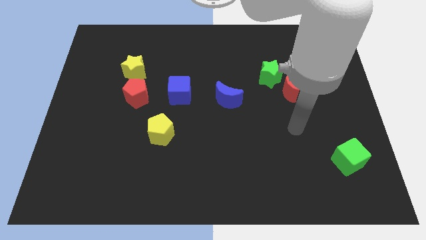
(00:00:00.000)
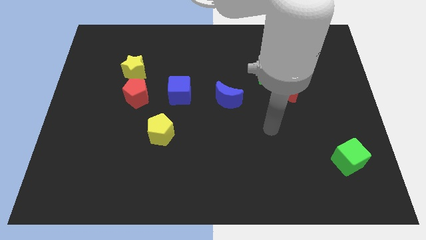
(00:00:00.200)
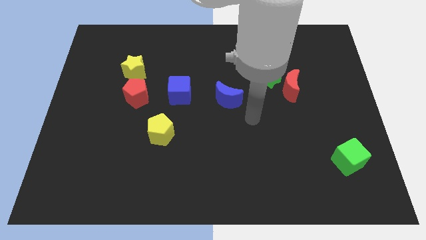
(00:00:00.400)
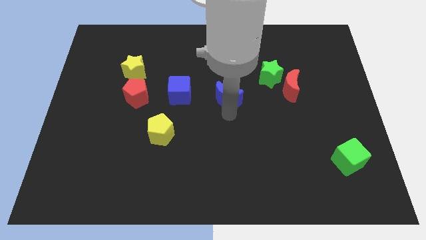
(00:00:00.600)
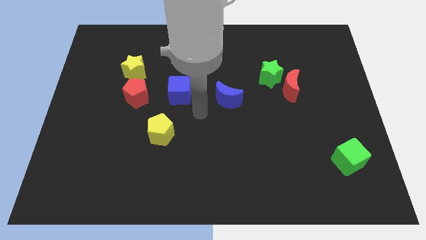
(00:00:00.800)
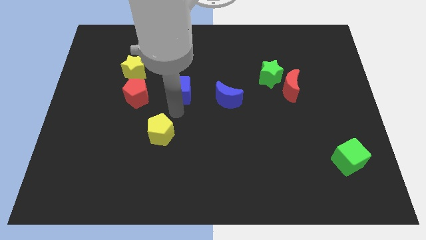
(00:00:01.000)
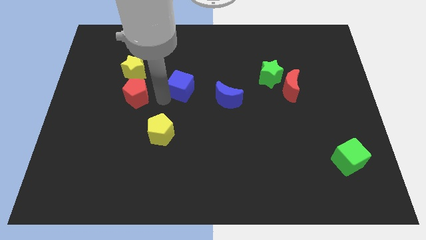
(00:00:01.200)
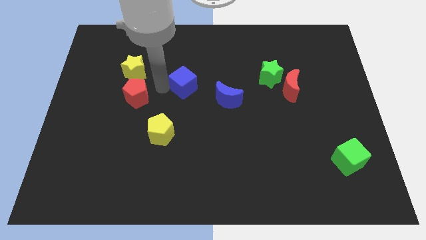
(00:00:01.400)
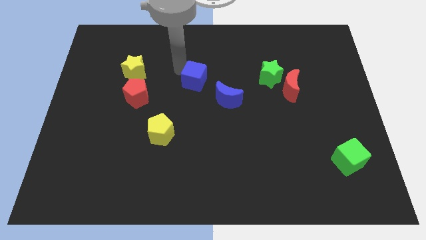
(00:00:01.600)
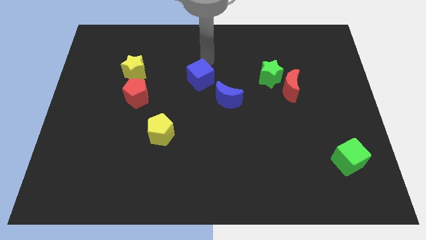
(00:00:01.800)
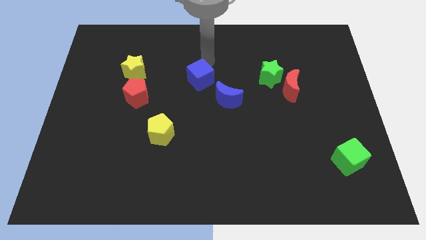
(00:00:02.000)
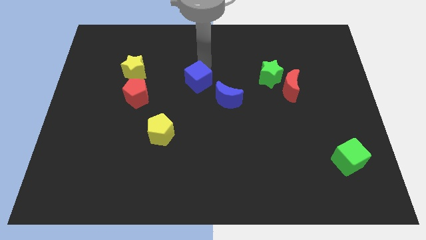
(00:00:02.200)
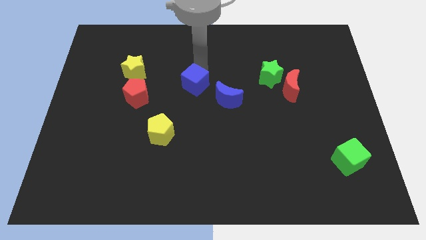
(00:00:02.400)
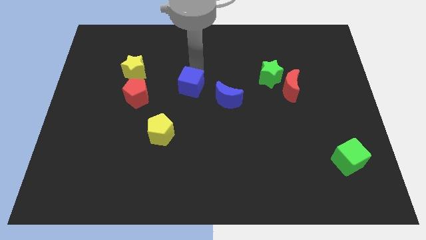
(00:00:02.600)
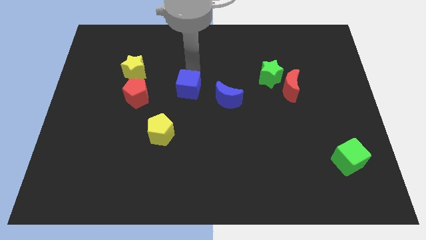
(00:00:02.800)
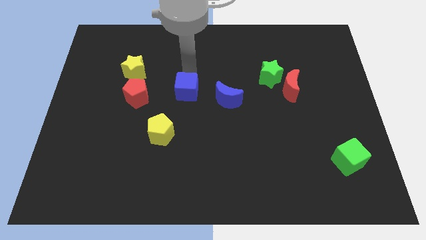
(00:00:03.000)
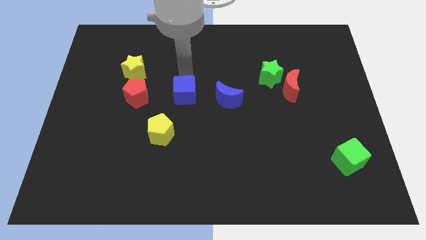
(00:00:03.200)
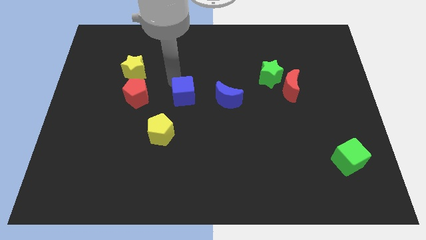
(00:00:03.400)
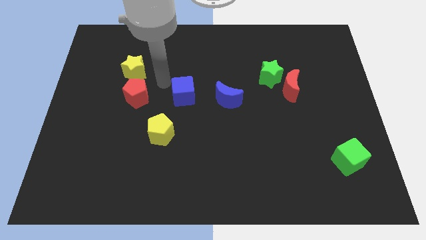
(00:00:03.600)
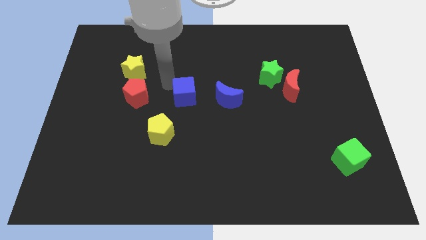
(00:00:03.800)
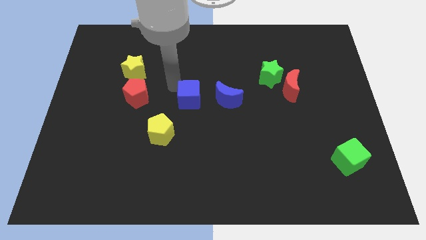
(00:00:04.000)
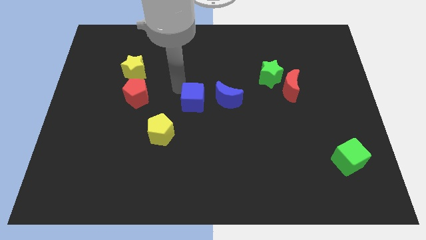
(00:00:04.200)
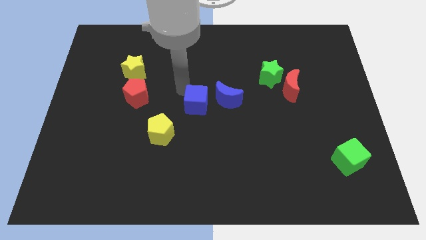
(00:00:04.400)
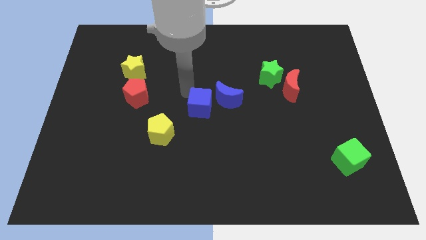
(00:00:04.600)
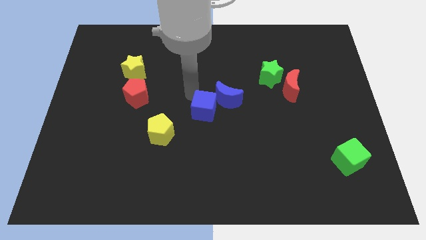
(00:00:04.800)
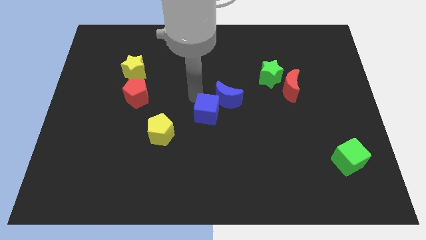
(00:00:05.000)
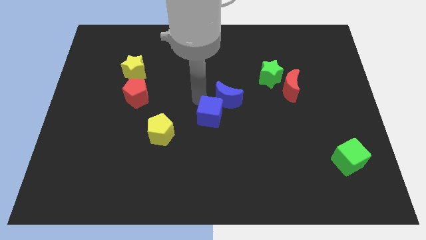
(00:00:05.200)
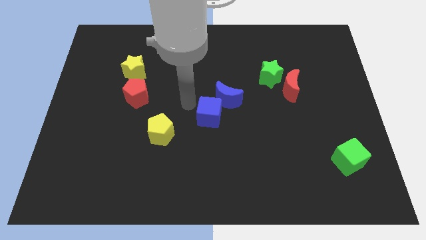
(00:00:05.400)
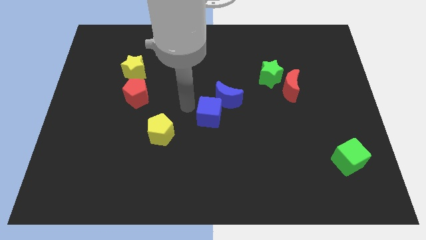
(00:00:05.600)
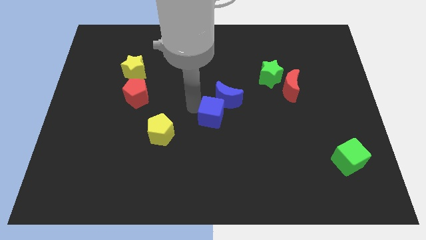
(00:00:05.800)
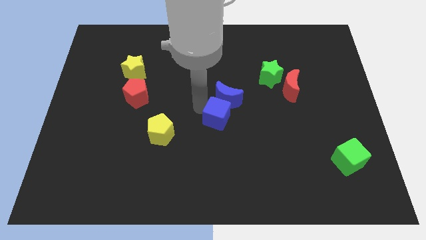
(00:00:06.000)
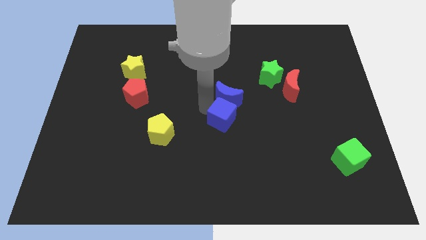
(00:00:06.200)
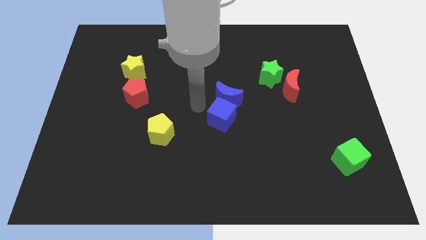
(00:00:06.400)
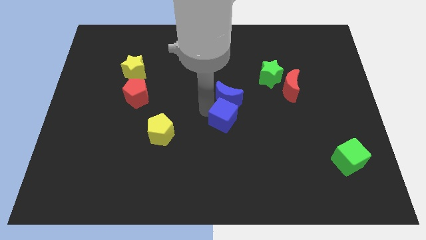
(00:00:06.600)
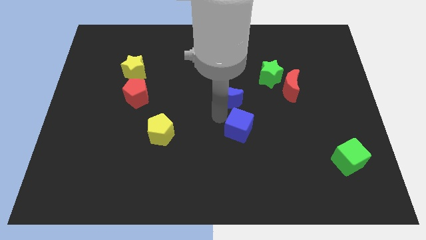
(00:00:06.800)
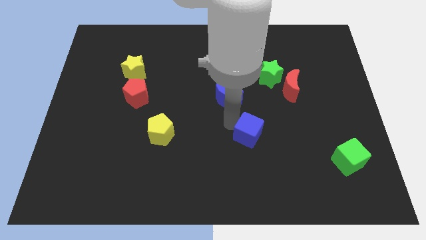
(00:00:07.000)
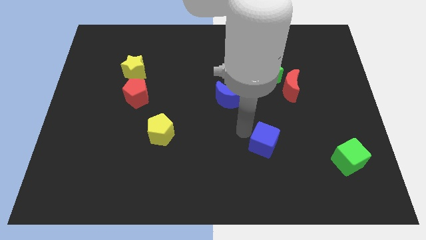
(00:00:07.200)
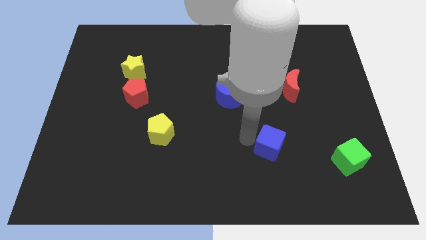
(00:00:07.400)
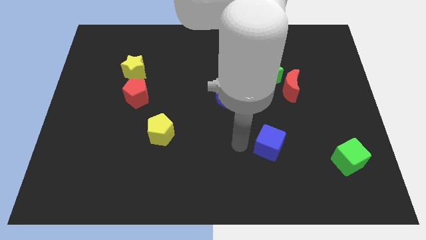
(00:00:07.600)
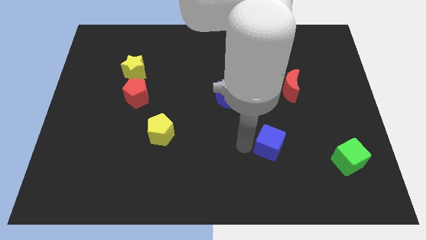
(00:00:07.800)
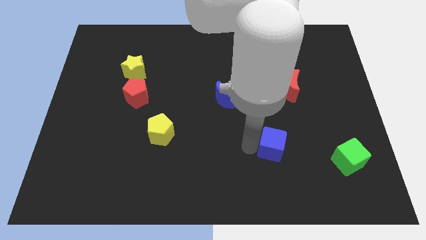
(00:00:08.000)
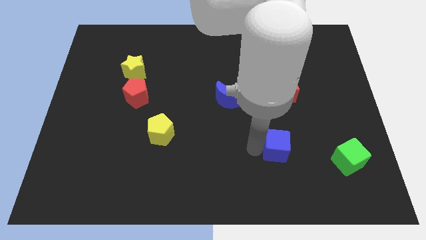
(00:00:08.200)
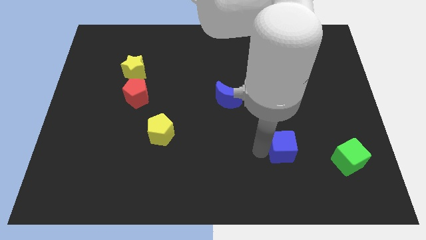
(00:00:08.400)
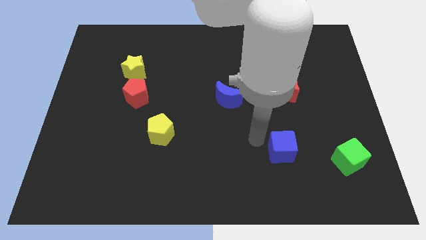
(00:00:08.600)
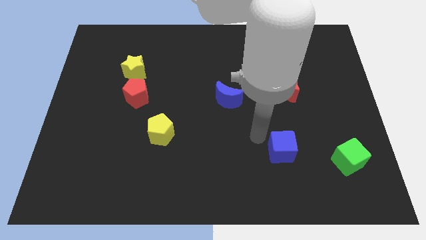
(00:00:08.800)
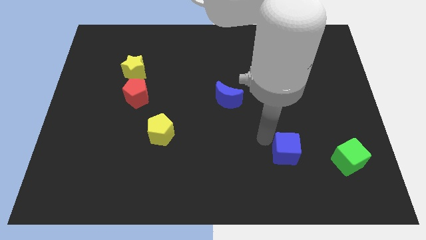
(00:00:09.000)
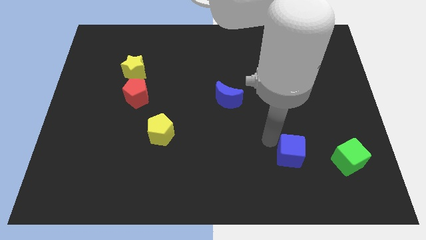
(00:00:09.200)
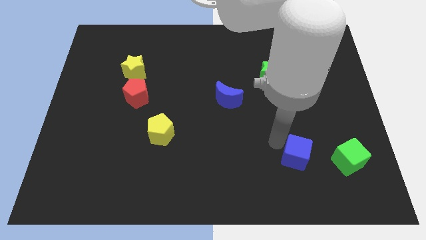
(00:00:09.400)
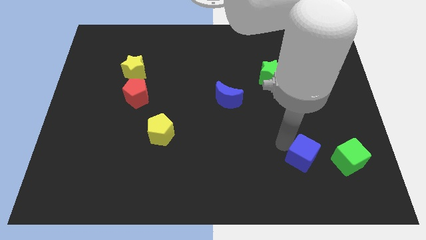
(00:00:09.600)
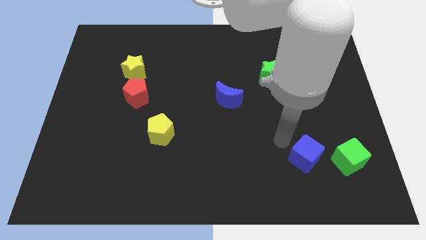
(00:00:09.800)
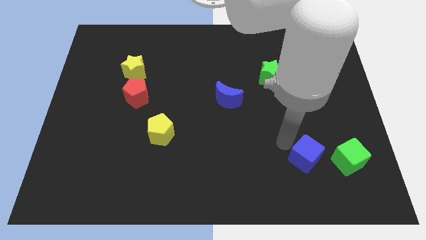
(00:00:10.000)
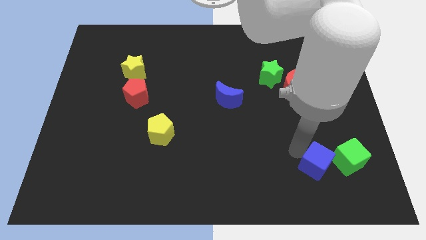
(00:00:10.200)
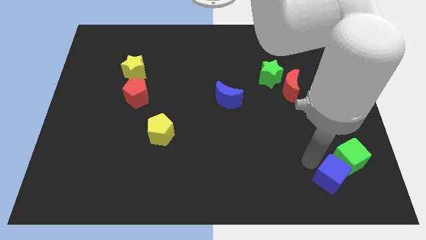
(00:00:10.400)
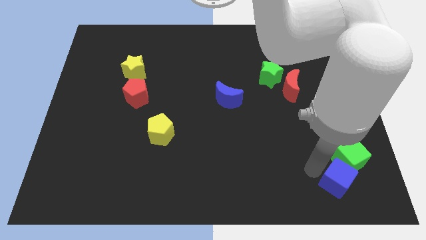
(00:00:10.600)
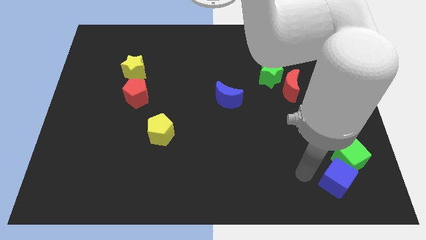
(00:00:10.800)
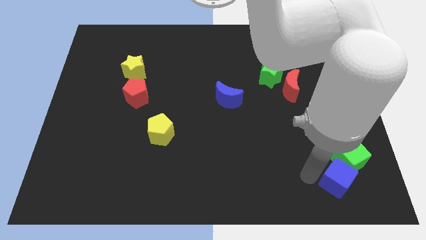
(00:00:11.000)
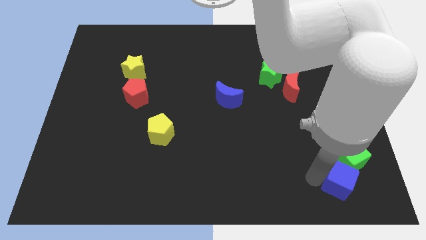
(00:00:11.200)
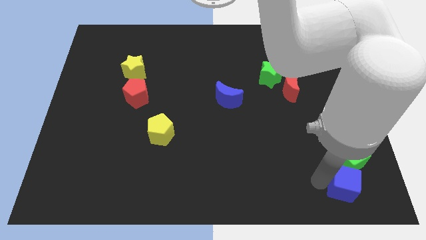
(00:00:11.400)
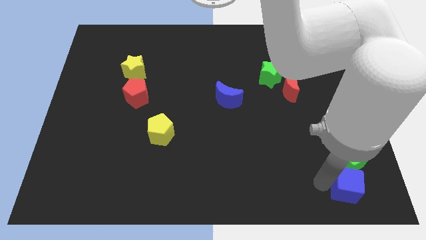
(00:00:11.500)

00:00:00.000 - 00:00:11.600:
slide the blue cube to the bottom right corner
